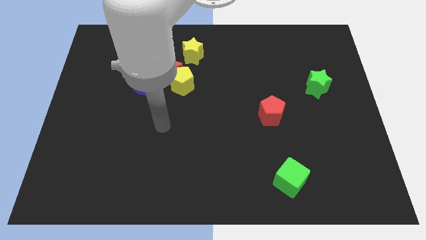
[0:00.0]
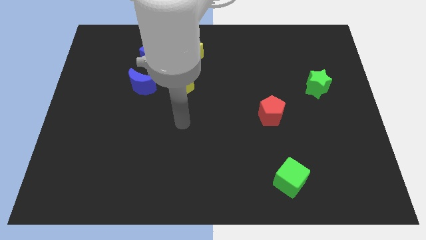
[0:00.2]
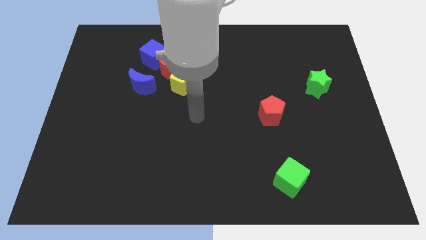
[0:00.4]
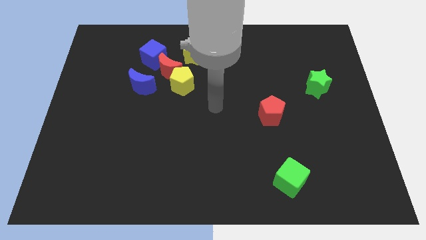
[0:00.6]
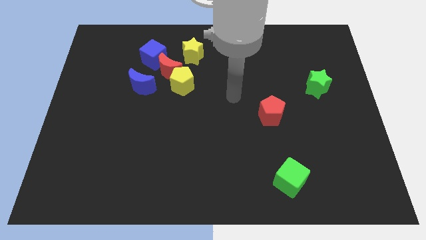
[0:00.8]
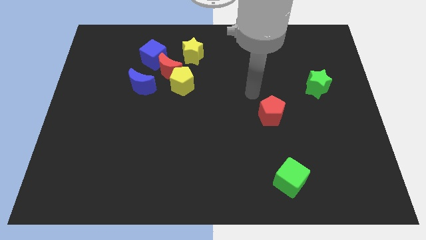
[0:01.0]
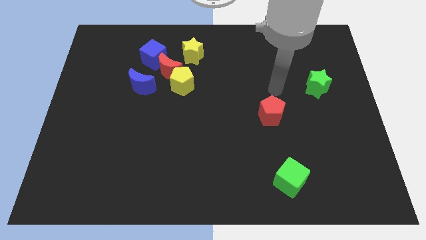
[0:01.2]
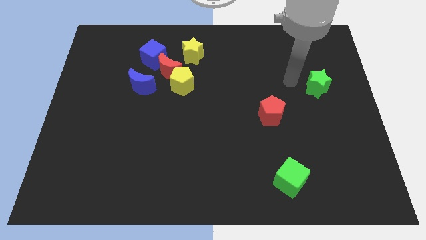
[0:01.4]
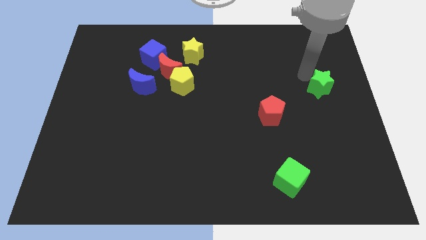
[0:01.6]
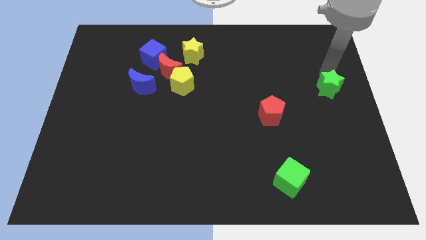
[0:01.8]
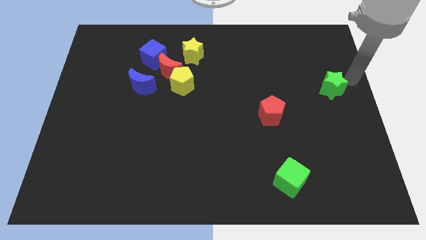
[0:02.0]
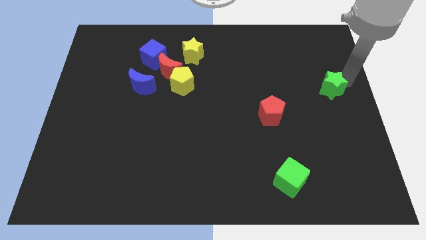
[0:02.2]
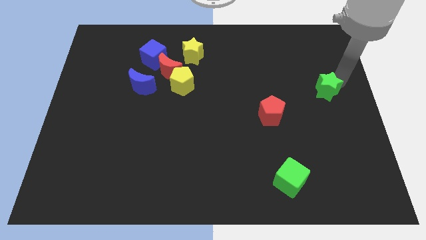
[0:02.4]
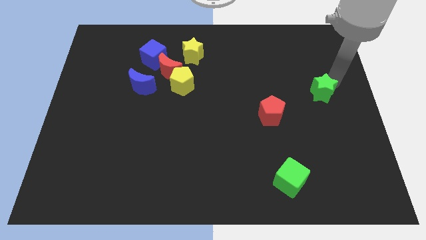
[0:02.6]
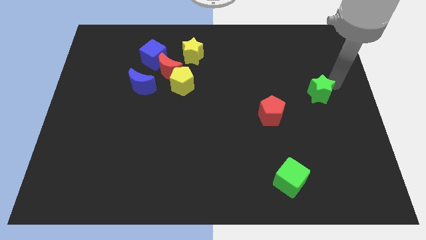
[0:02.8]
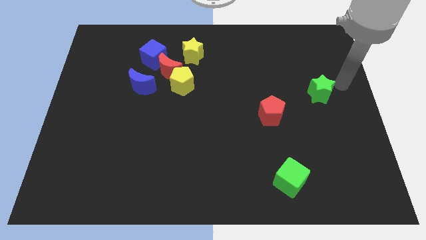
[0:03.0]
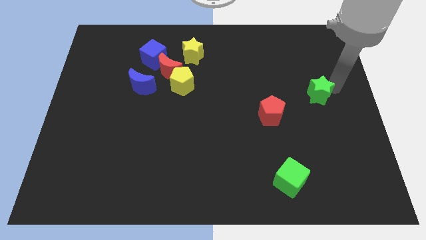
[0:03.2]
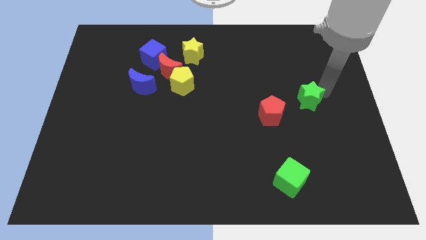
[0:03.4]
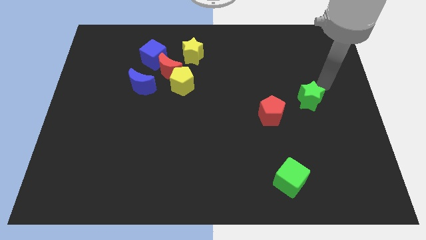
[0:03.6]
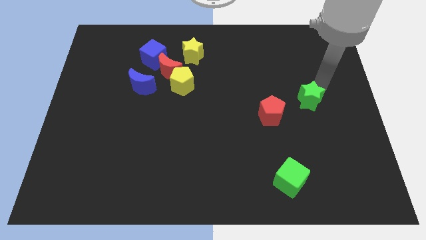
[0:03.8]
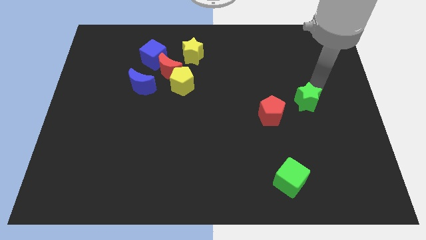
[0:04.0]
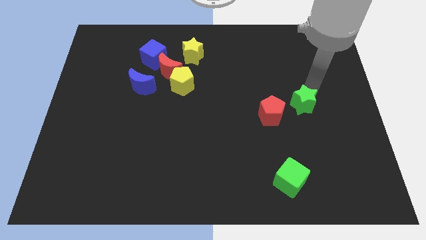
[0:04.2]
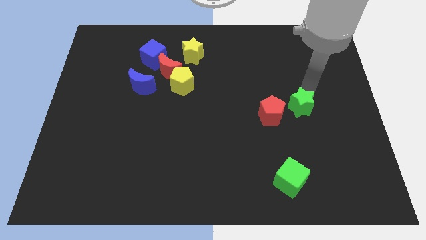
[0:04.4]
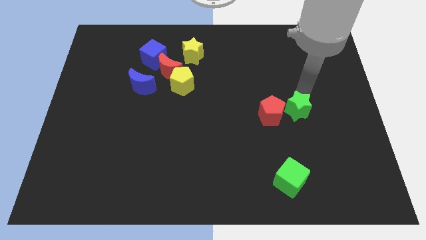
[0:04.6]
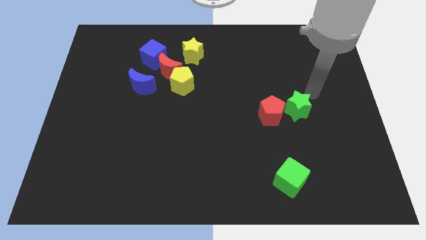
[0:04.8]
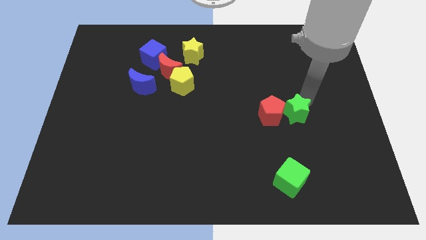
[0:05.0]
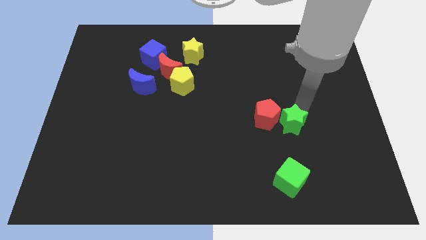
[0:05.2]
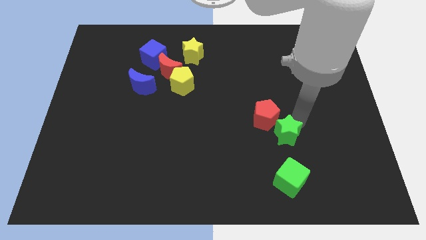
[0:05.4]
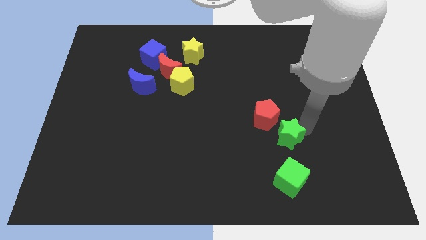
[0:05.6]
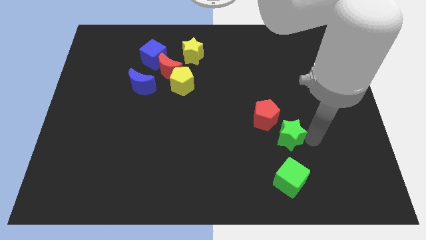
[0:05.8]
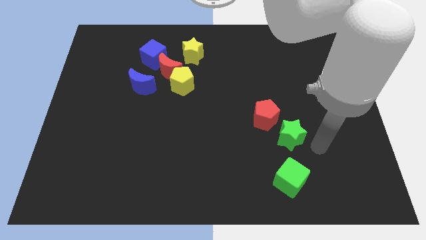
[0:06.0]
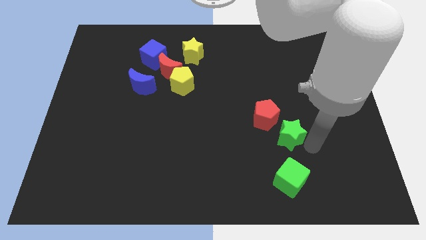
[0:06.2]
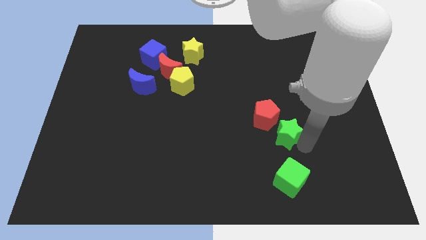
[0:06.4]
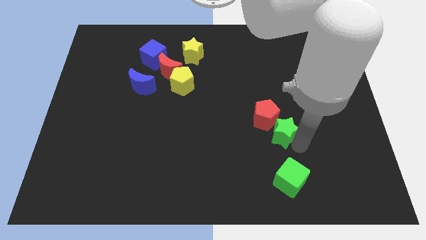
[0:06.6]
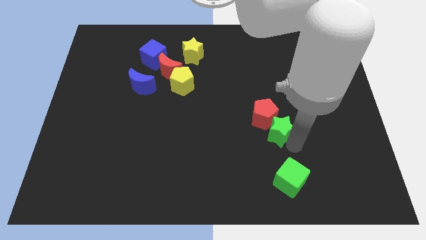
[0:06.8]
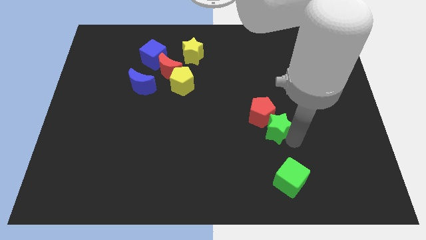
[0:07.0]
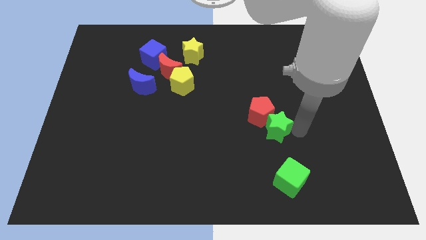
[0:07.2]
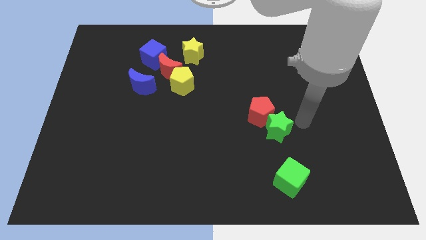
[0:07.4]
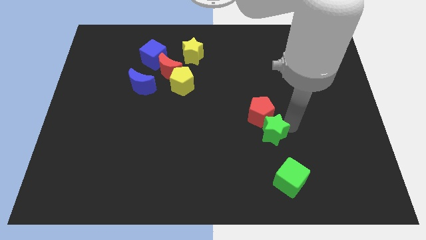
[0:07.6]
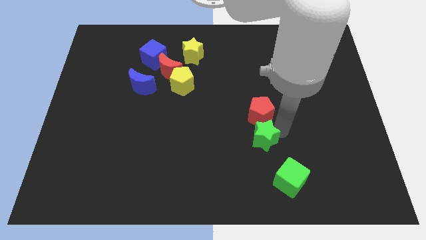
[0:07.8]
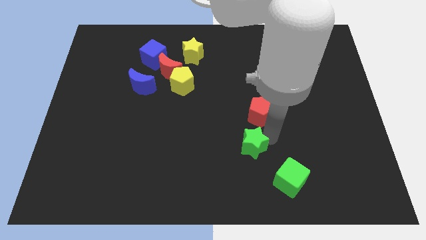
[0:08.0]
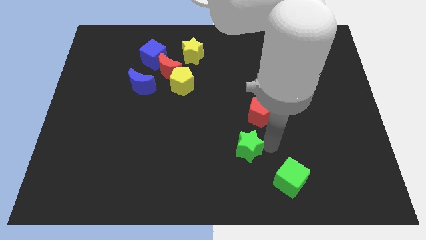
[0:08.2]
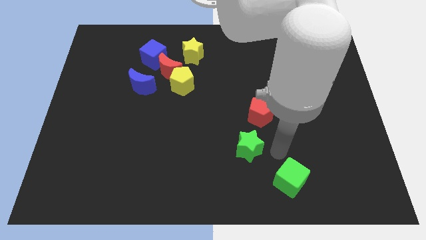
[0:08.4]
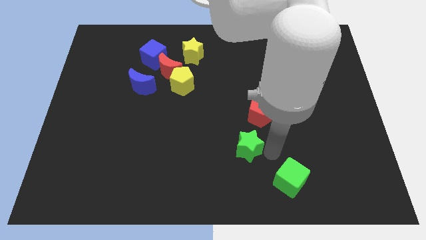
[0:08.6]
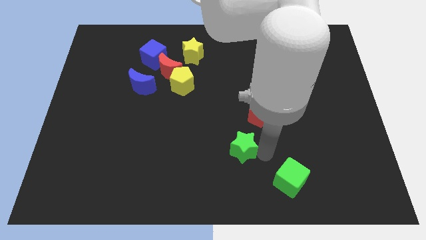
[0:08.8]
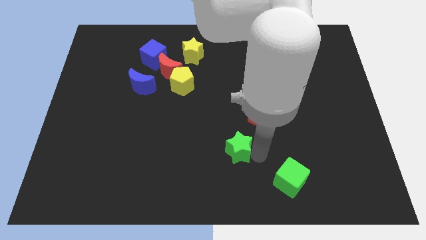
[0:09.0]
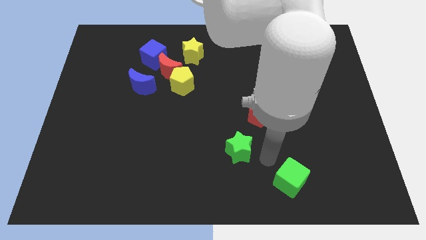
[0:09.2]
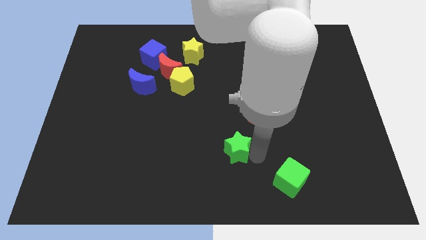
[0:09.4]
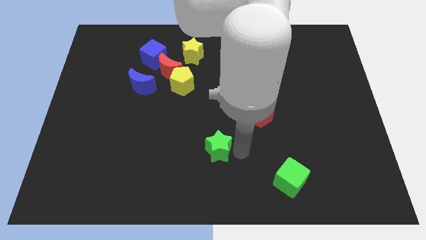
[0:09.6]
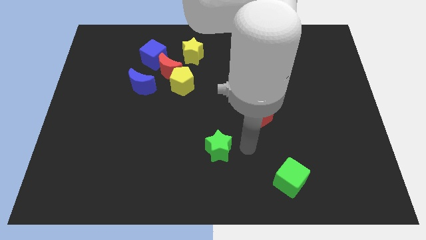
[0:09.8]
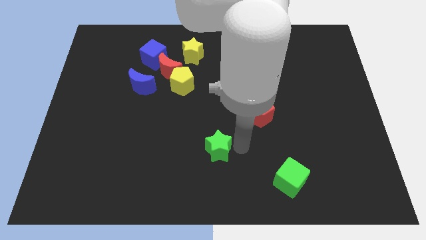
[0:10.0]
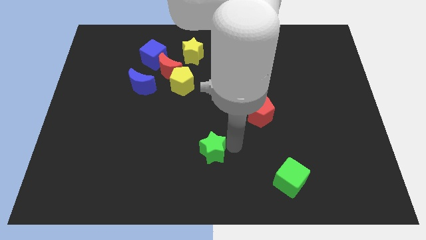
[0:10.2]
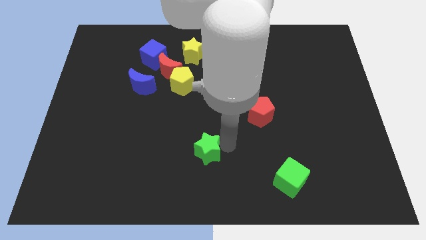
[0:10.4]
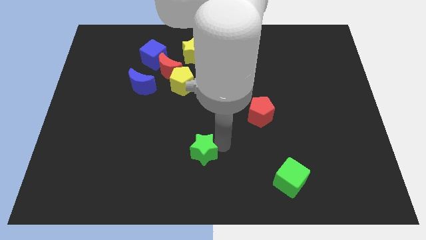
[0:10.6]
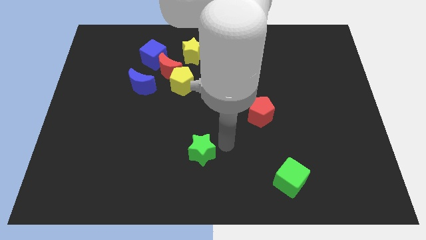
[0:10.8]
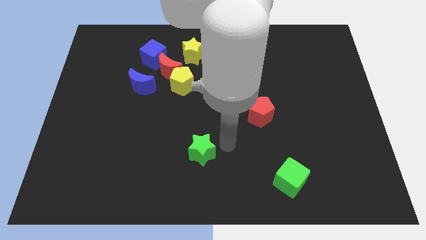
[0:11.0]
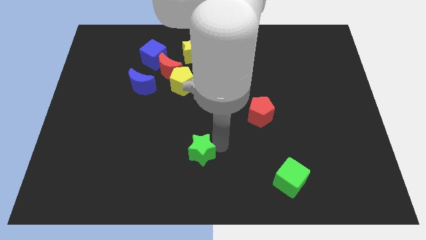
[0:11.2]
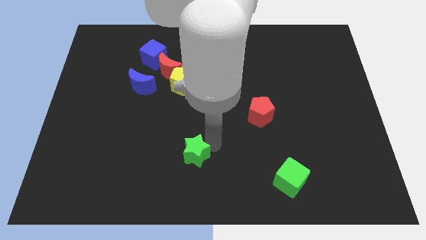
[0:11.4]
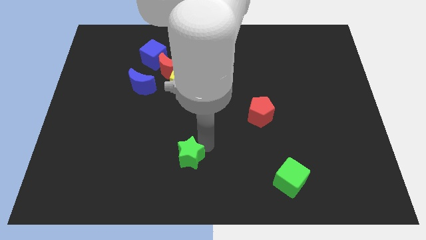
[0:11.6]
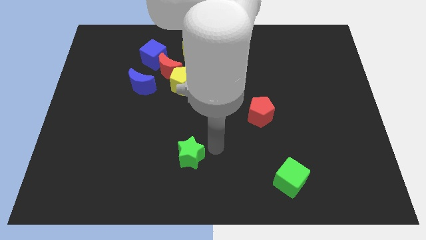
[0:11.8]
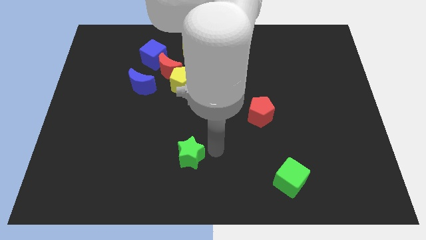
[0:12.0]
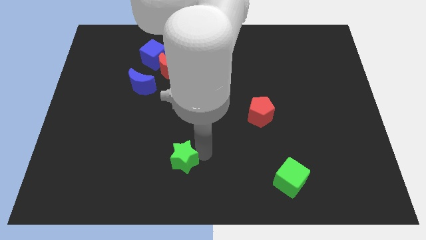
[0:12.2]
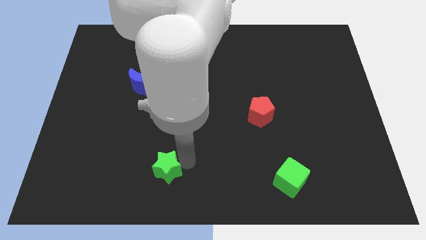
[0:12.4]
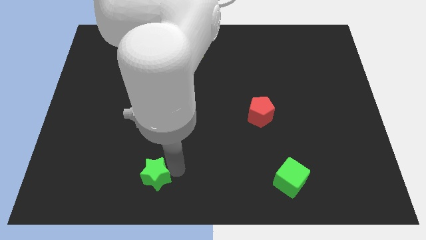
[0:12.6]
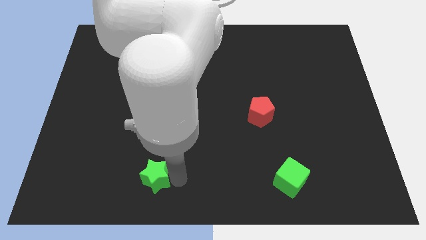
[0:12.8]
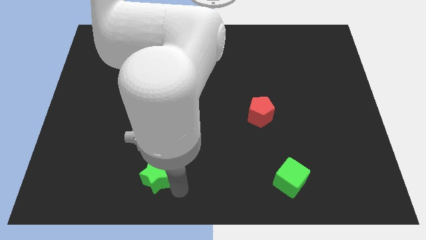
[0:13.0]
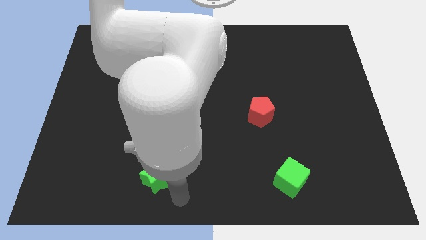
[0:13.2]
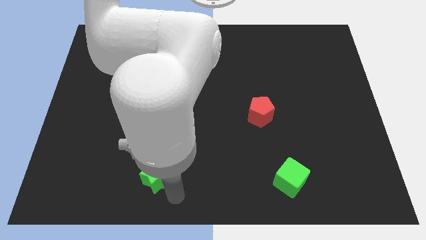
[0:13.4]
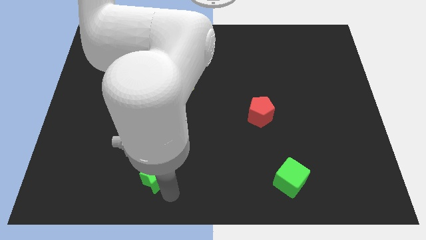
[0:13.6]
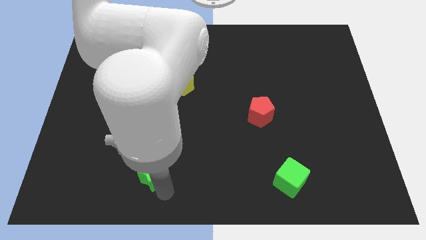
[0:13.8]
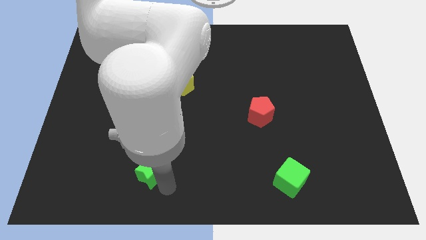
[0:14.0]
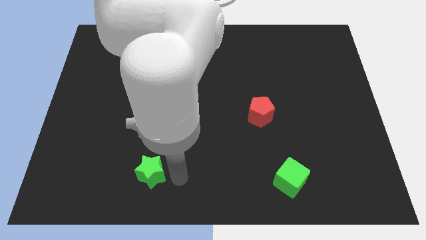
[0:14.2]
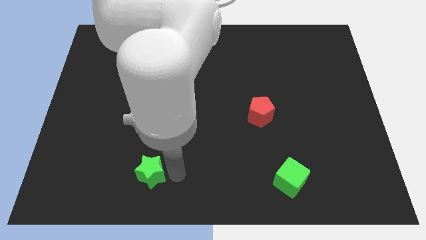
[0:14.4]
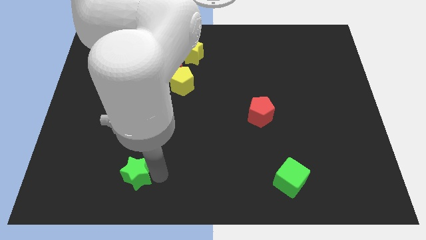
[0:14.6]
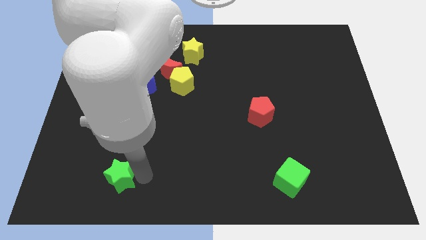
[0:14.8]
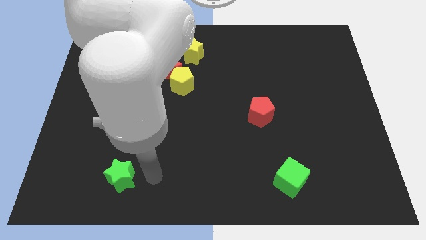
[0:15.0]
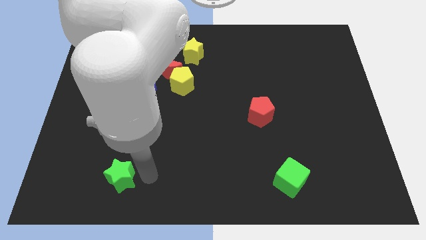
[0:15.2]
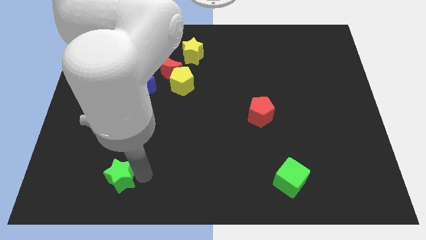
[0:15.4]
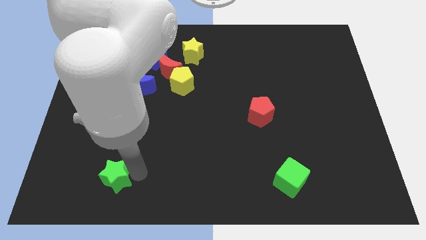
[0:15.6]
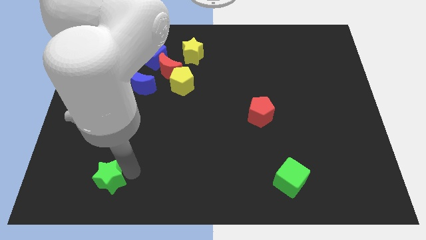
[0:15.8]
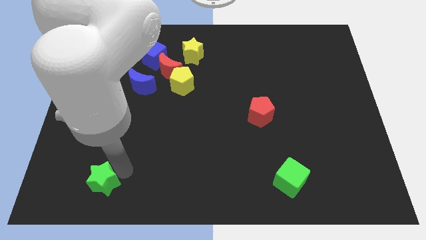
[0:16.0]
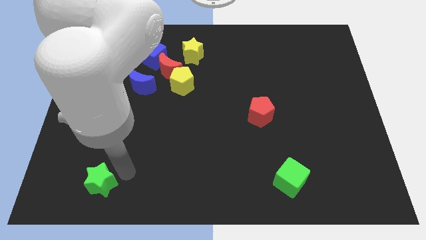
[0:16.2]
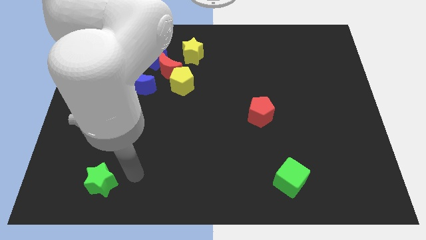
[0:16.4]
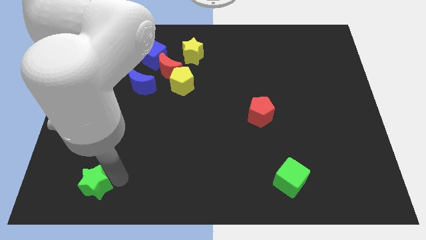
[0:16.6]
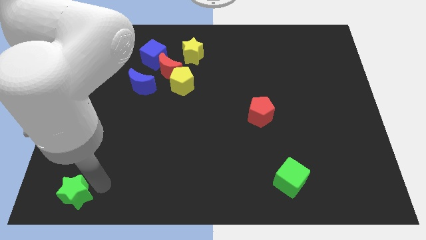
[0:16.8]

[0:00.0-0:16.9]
push the green star to the bottom left
